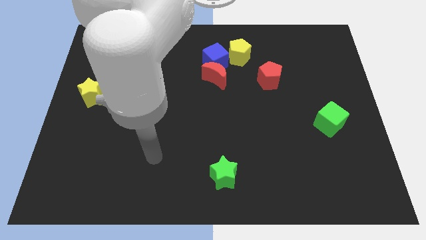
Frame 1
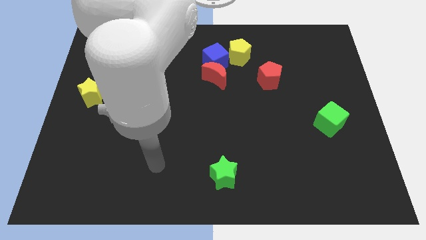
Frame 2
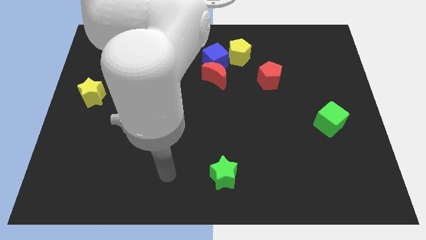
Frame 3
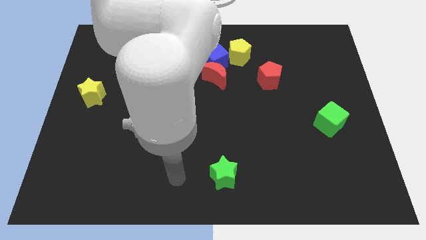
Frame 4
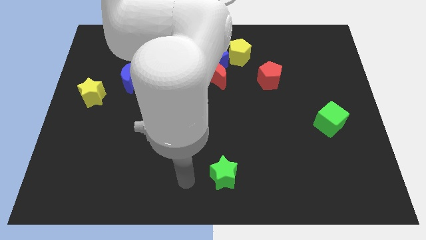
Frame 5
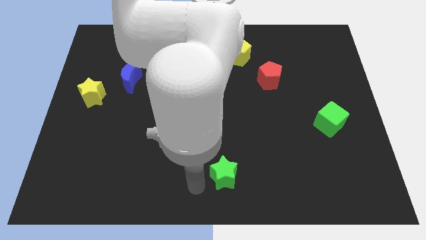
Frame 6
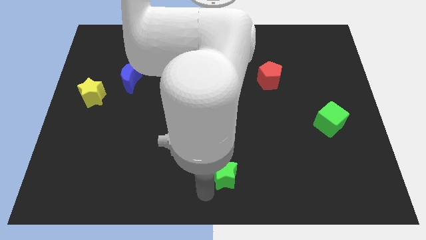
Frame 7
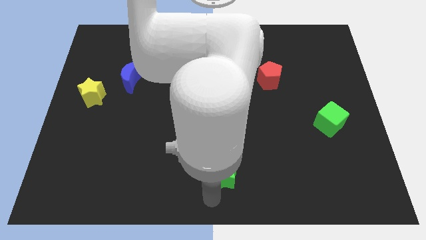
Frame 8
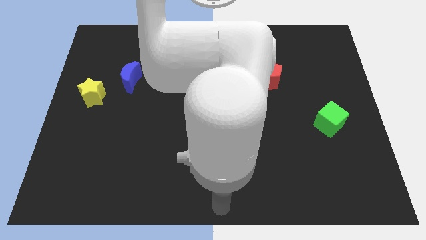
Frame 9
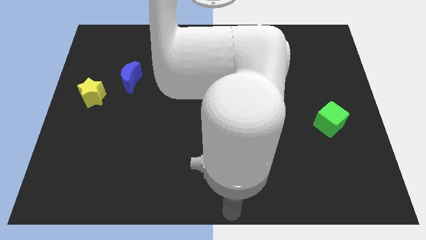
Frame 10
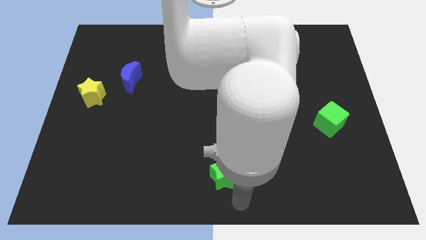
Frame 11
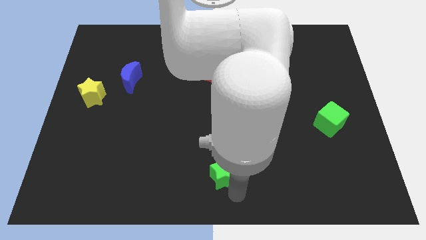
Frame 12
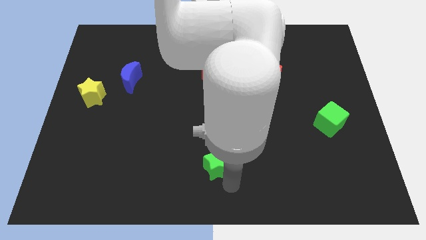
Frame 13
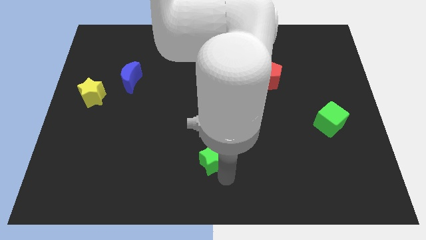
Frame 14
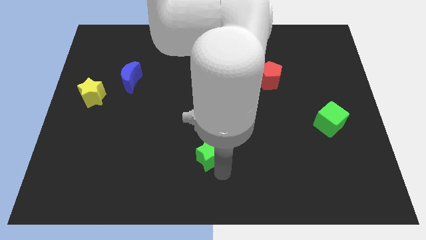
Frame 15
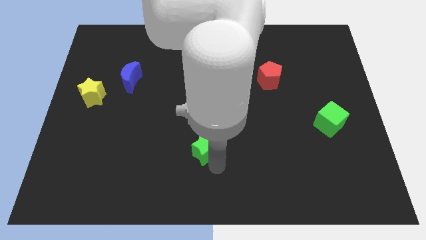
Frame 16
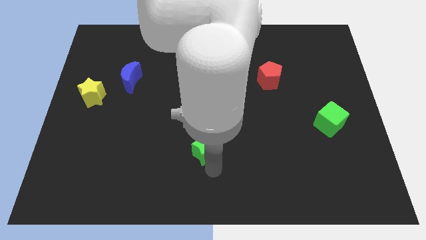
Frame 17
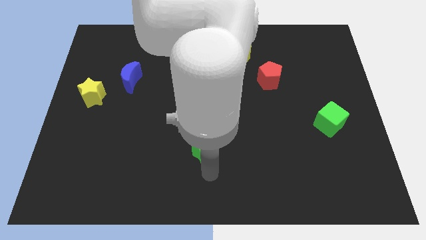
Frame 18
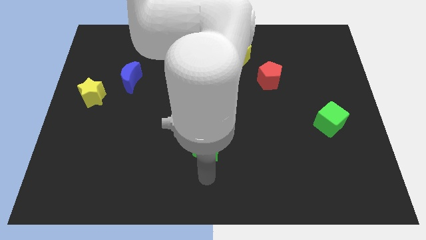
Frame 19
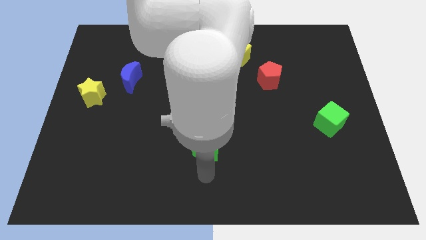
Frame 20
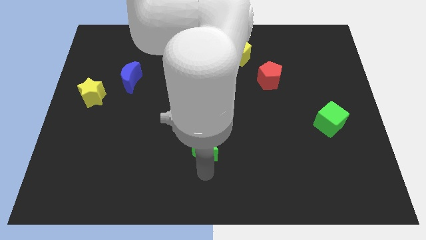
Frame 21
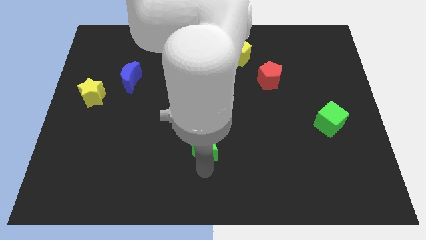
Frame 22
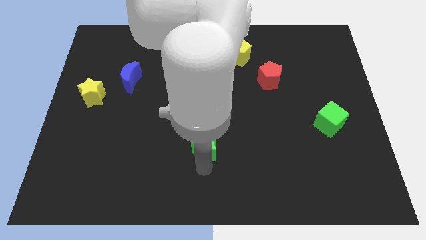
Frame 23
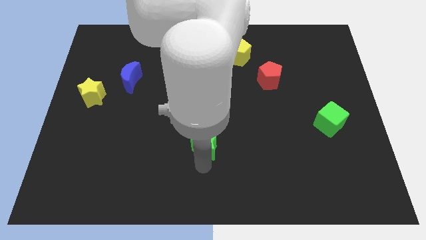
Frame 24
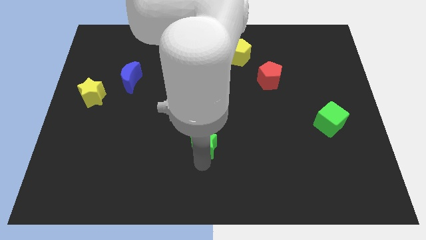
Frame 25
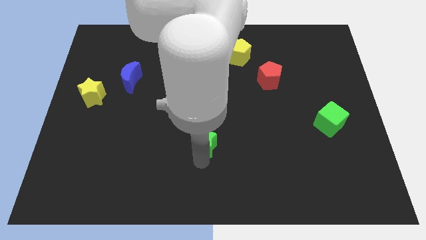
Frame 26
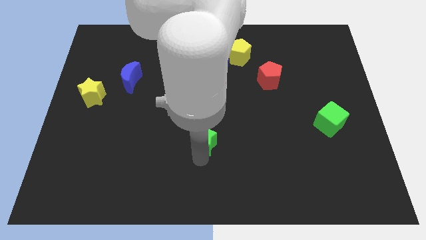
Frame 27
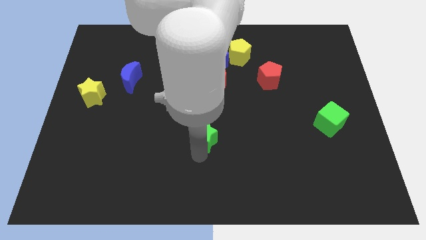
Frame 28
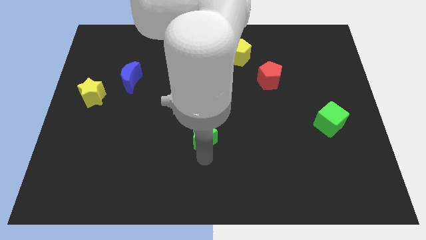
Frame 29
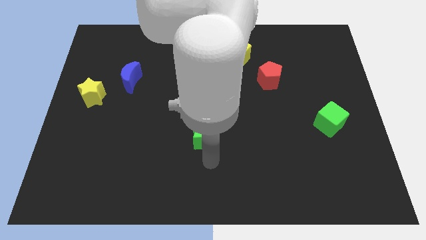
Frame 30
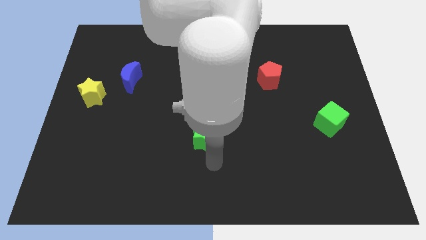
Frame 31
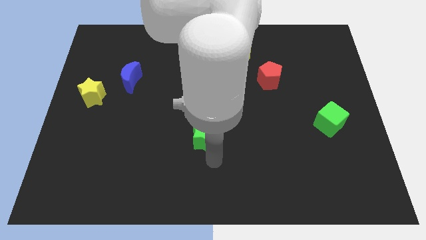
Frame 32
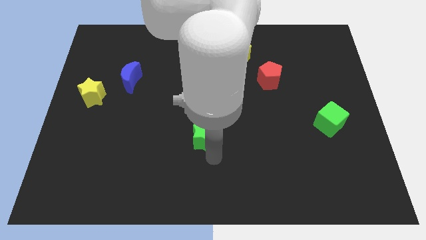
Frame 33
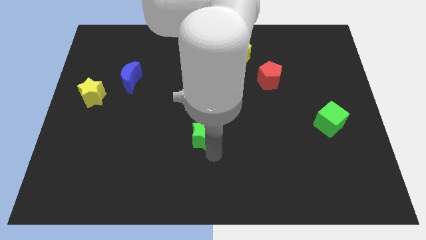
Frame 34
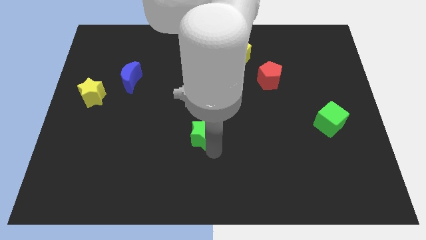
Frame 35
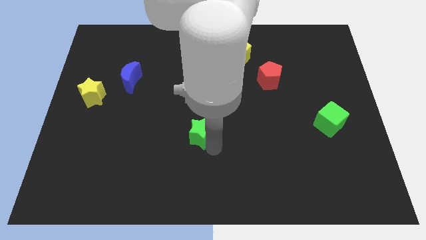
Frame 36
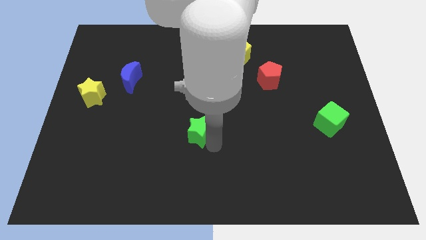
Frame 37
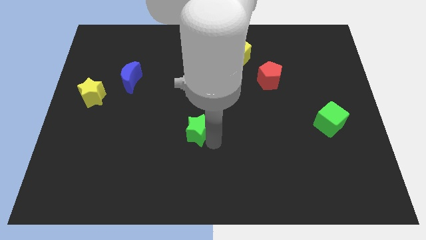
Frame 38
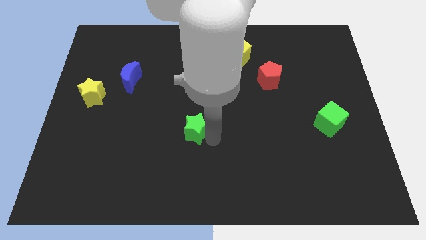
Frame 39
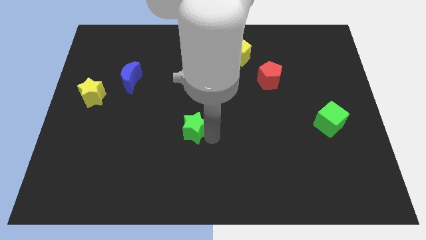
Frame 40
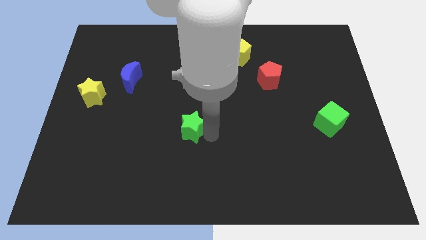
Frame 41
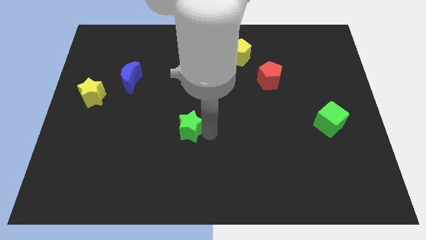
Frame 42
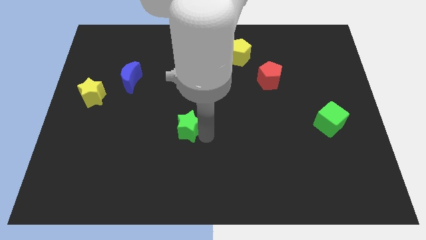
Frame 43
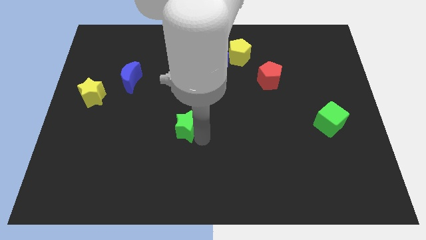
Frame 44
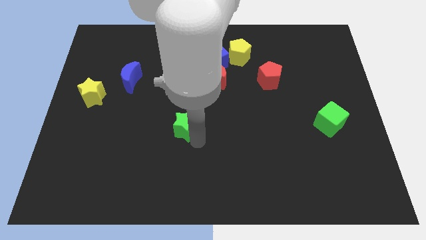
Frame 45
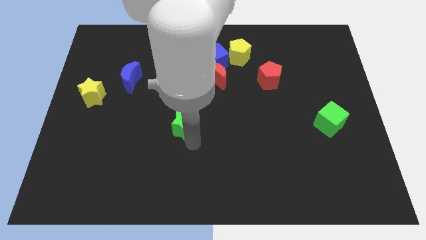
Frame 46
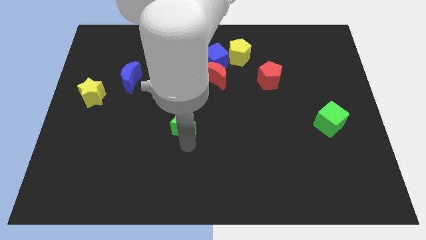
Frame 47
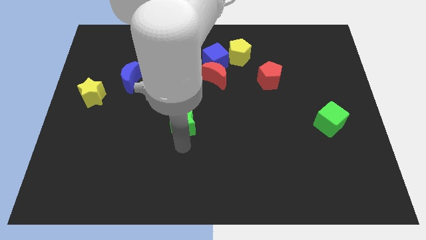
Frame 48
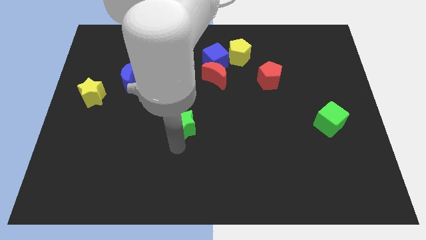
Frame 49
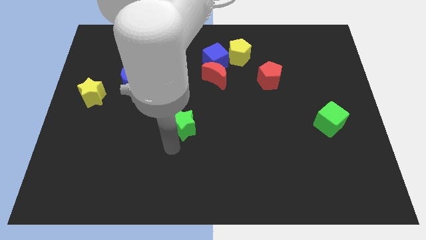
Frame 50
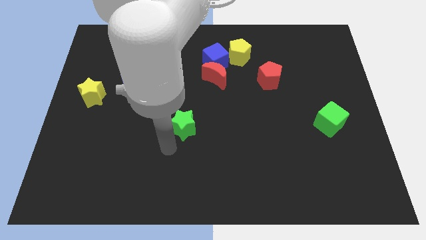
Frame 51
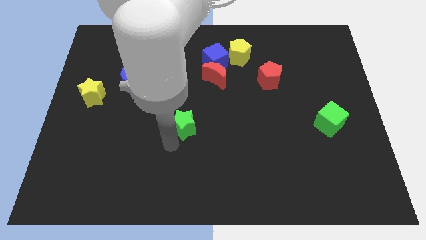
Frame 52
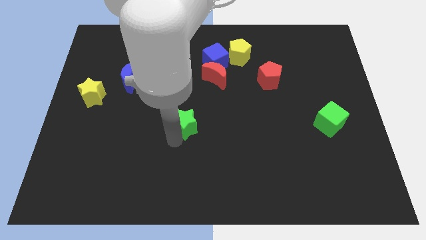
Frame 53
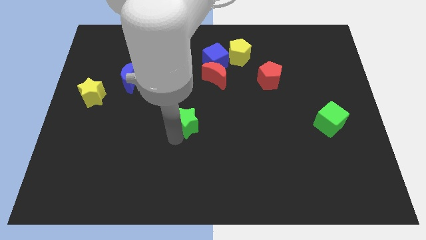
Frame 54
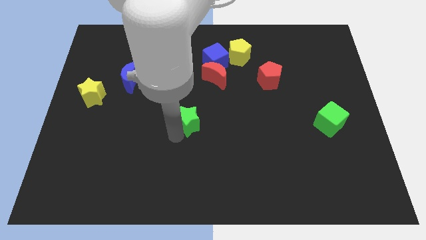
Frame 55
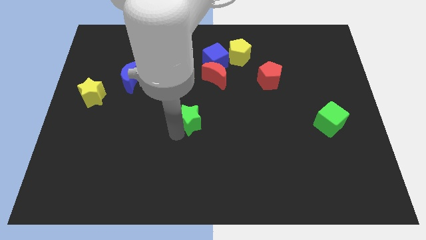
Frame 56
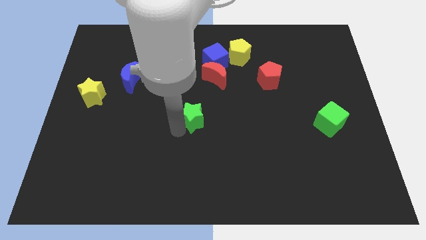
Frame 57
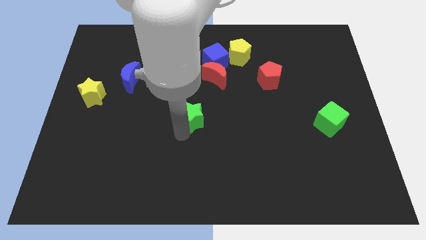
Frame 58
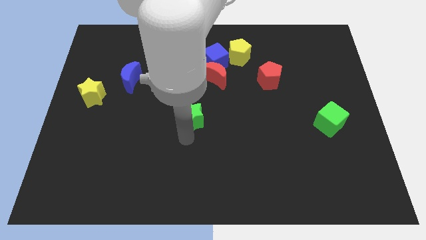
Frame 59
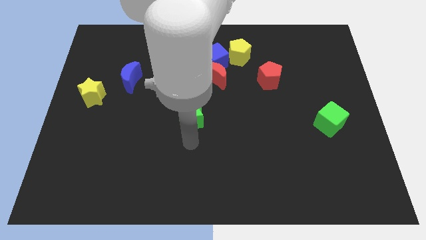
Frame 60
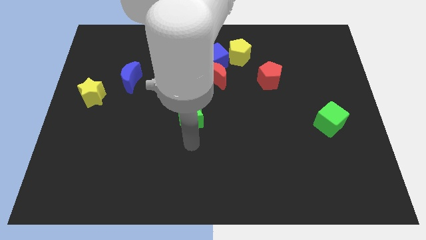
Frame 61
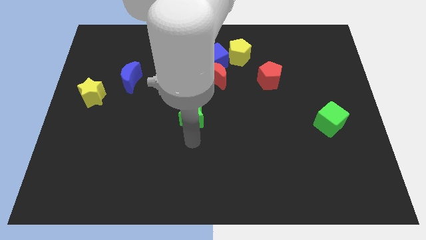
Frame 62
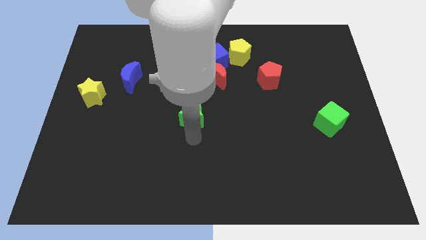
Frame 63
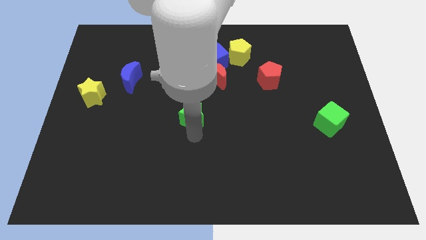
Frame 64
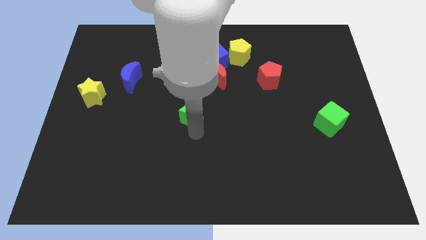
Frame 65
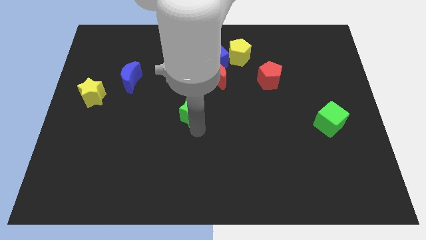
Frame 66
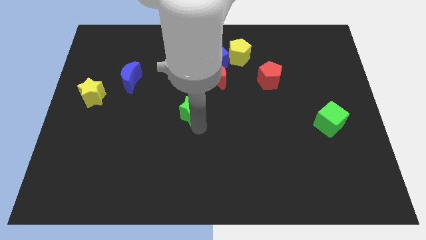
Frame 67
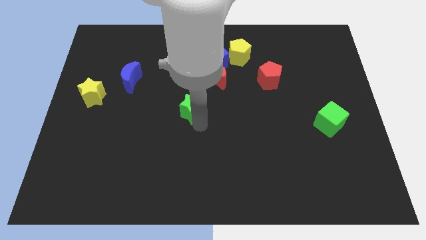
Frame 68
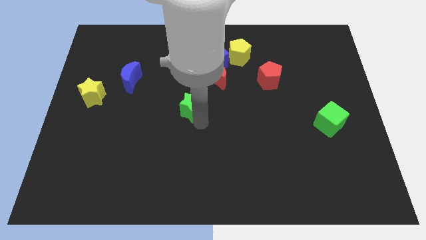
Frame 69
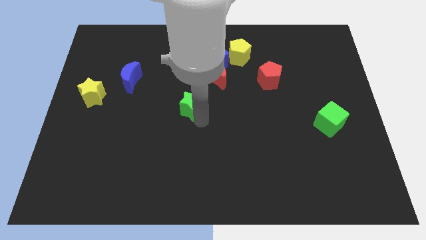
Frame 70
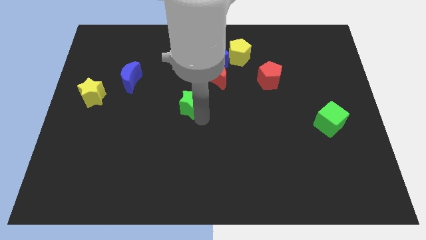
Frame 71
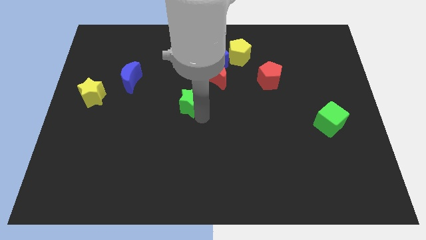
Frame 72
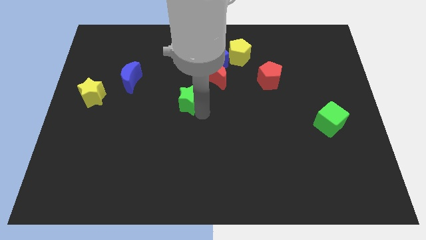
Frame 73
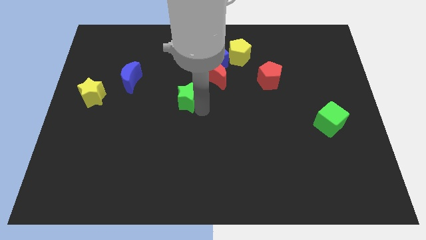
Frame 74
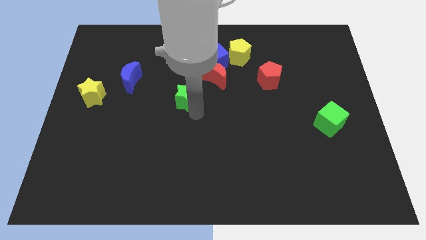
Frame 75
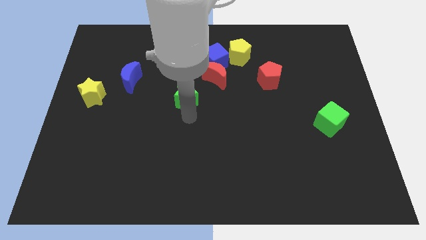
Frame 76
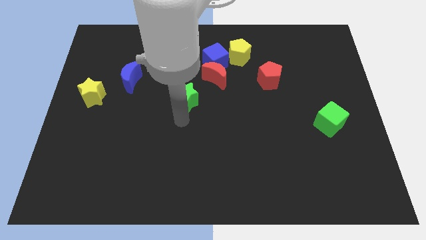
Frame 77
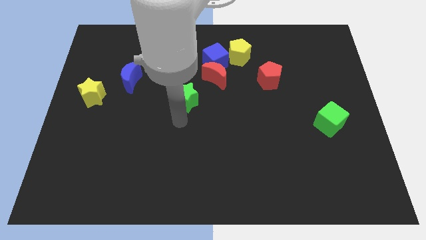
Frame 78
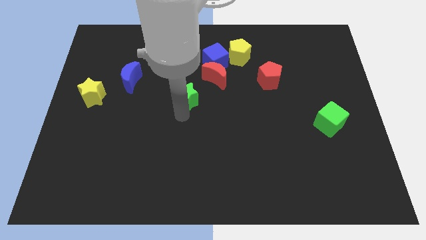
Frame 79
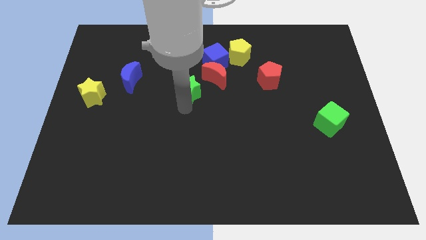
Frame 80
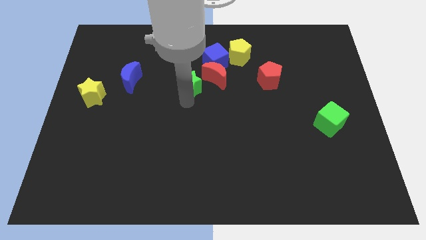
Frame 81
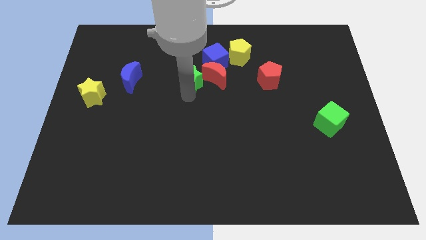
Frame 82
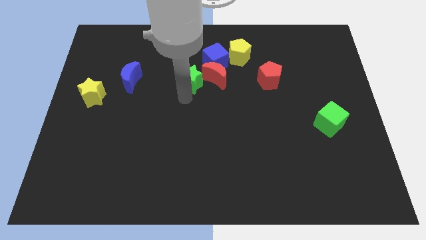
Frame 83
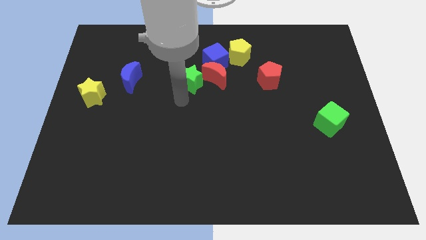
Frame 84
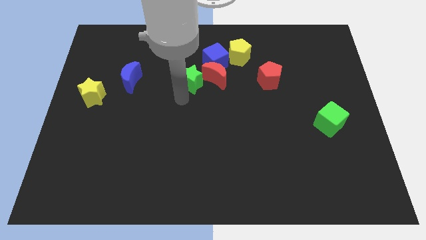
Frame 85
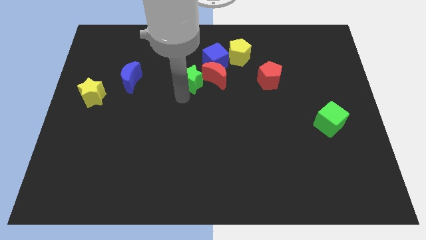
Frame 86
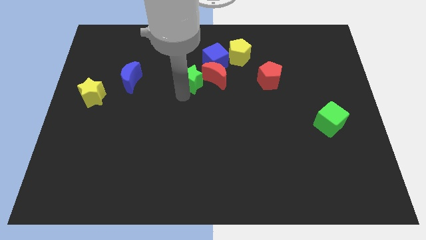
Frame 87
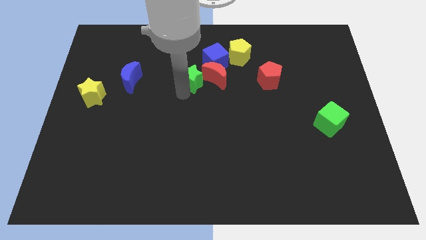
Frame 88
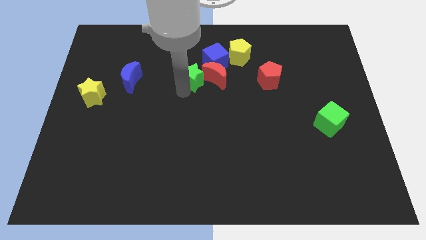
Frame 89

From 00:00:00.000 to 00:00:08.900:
put the green star to the top left of the red moon
